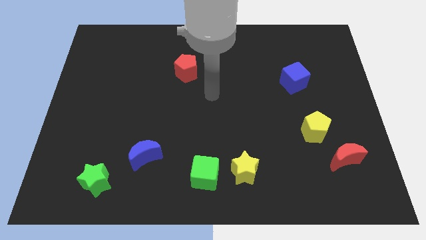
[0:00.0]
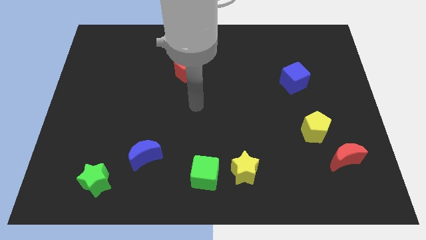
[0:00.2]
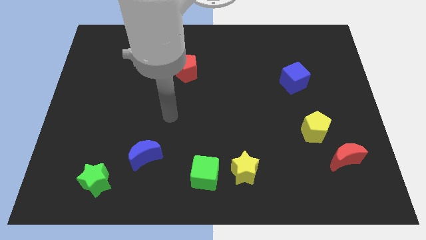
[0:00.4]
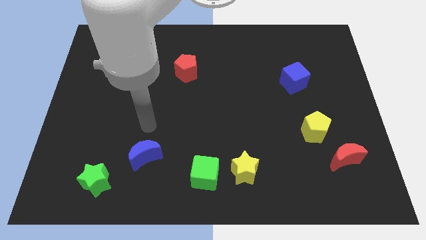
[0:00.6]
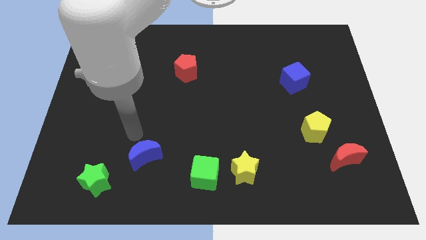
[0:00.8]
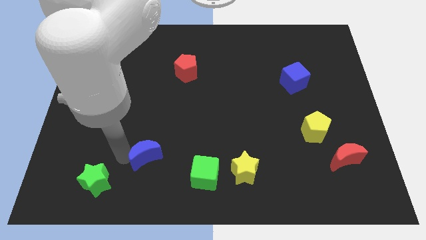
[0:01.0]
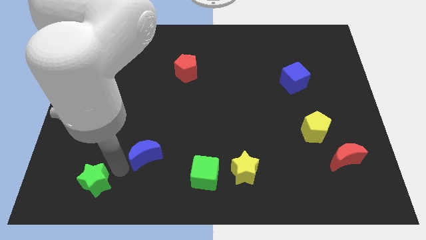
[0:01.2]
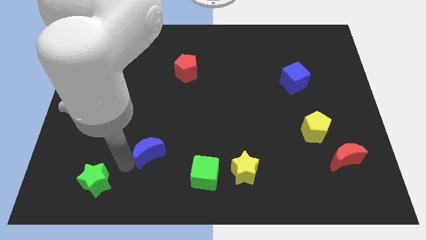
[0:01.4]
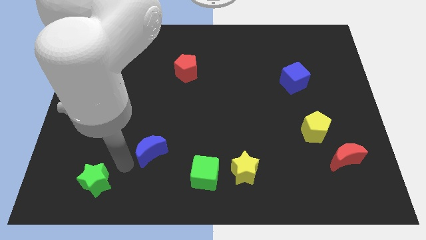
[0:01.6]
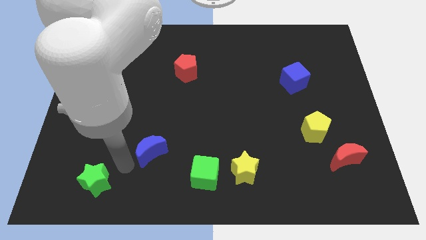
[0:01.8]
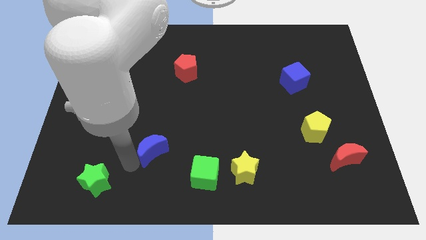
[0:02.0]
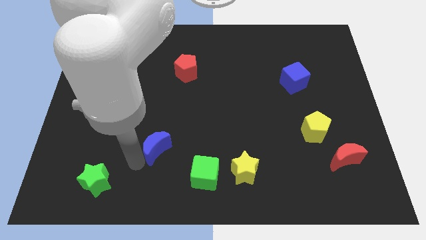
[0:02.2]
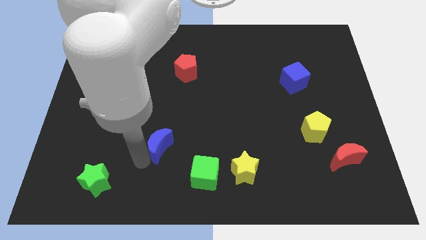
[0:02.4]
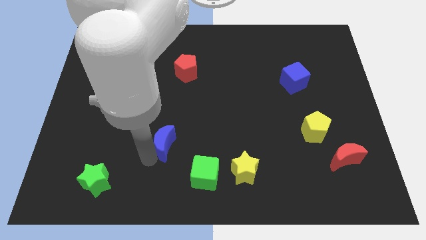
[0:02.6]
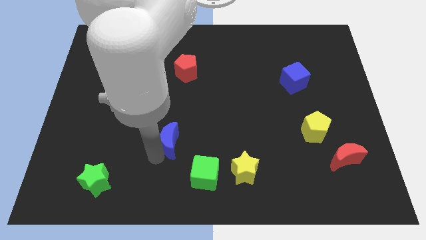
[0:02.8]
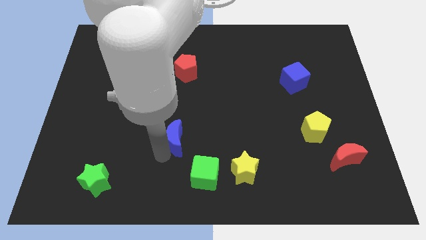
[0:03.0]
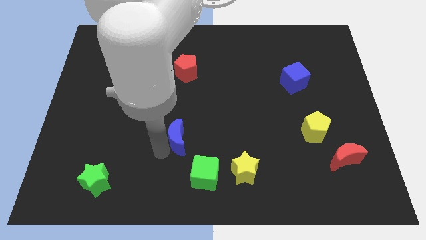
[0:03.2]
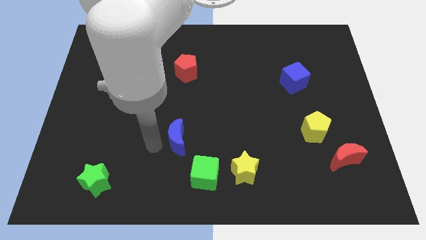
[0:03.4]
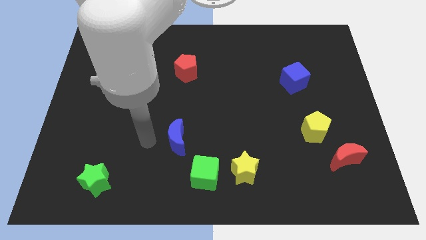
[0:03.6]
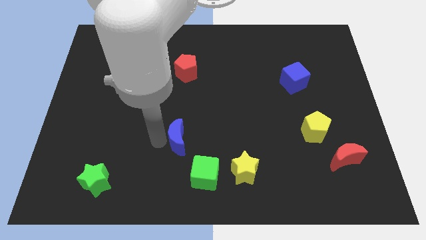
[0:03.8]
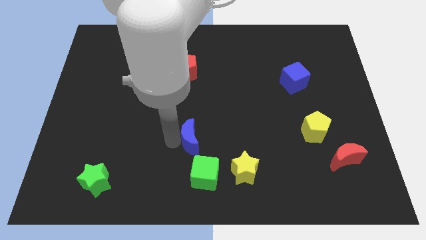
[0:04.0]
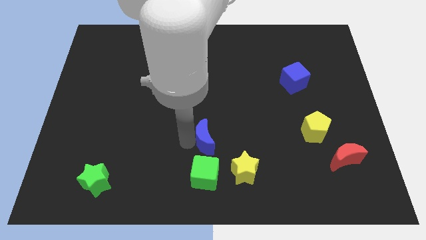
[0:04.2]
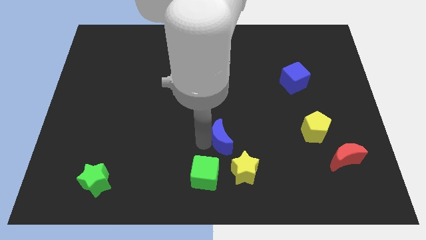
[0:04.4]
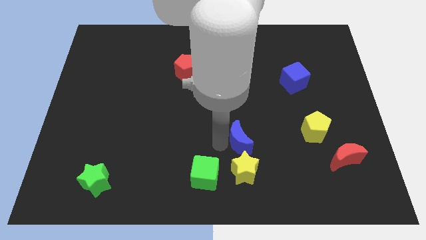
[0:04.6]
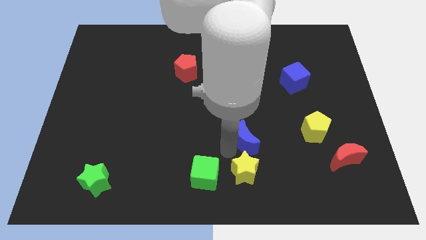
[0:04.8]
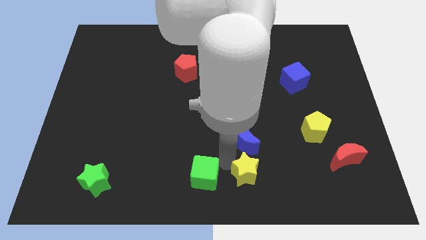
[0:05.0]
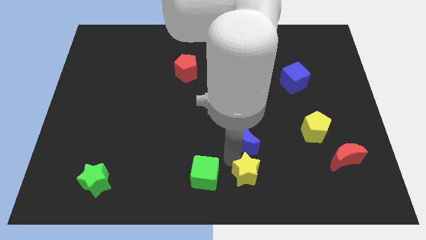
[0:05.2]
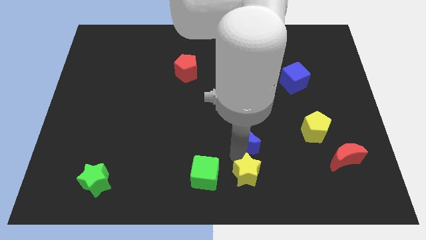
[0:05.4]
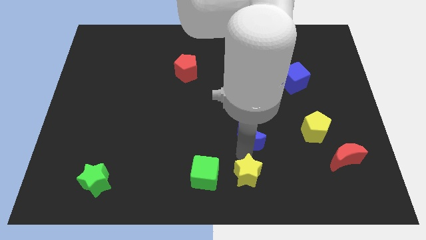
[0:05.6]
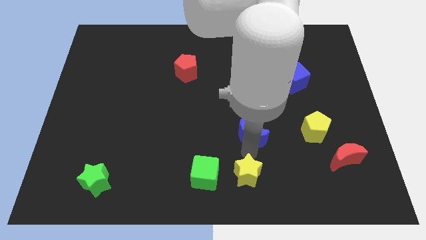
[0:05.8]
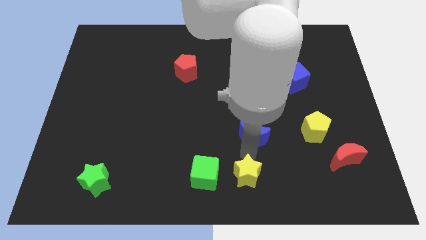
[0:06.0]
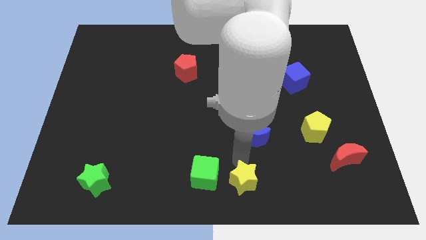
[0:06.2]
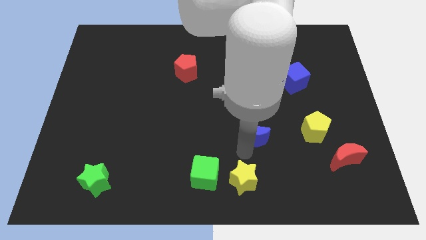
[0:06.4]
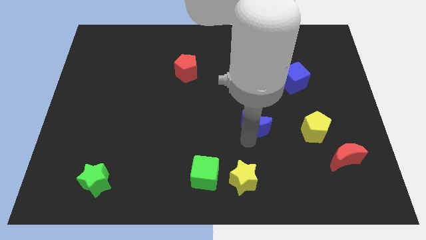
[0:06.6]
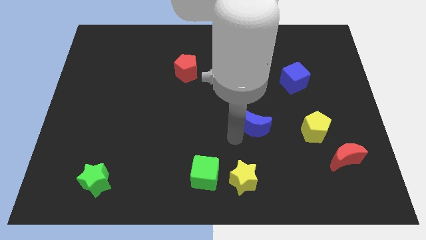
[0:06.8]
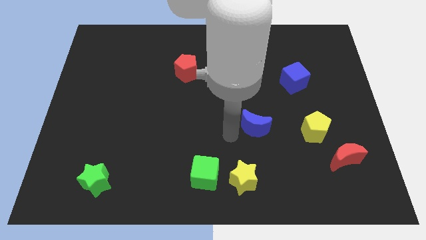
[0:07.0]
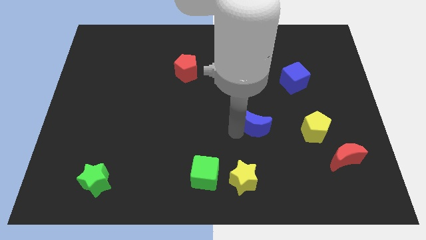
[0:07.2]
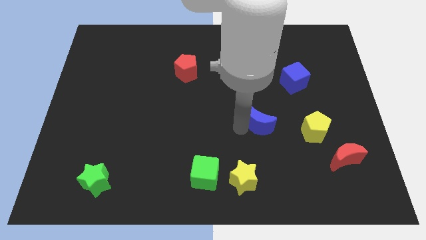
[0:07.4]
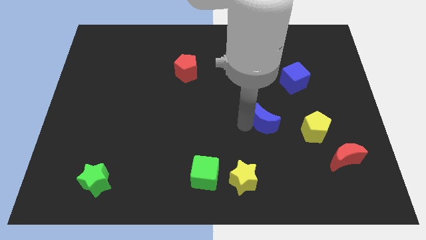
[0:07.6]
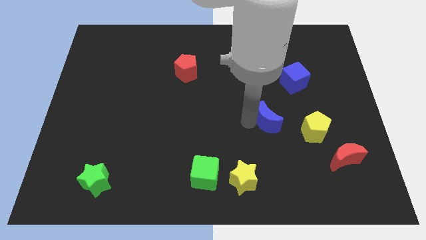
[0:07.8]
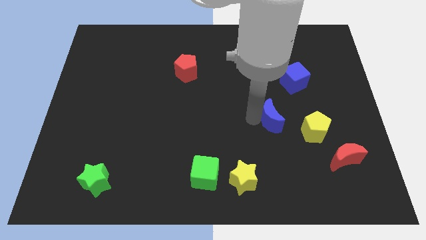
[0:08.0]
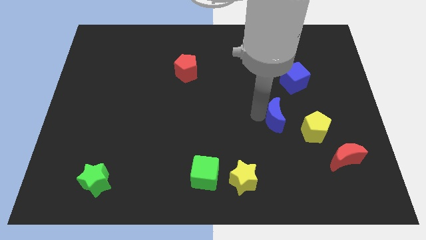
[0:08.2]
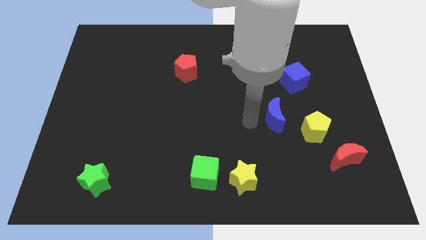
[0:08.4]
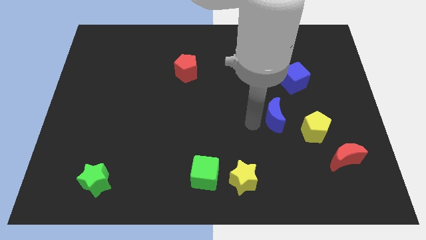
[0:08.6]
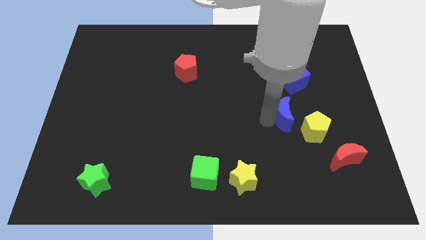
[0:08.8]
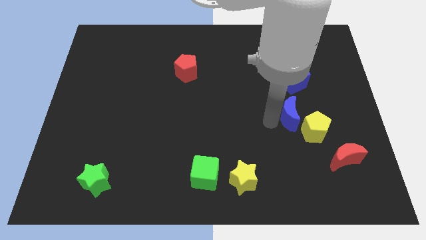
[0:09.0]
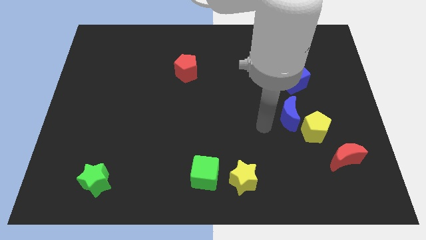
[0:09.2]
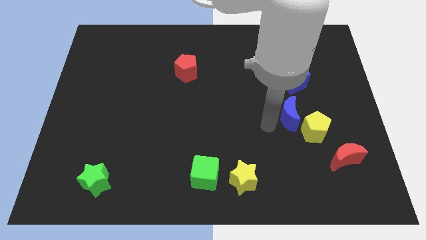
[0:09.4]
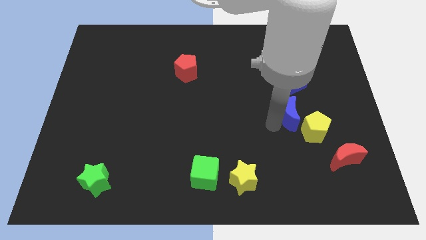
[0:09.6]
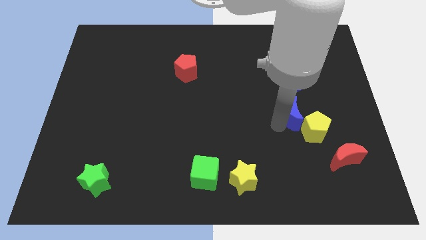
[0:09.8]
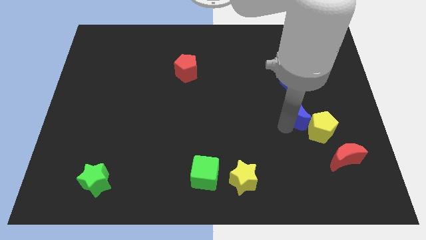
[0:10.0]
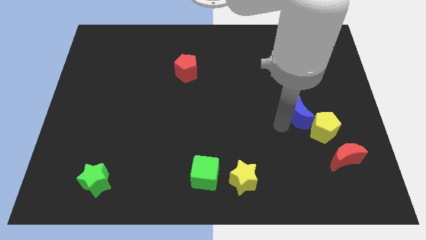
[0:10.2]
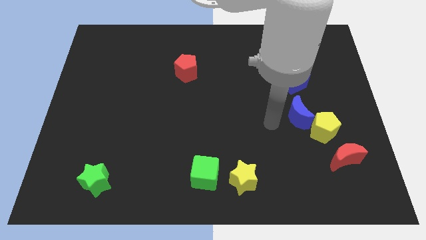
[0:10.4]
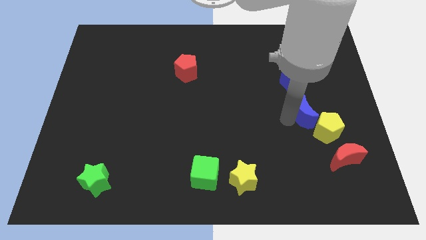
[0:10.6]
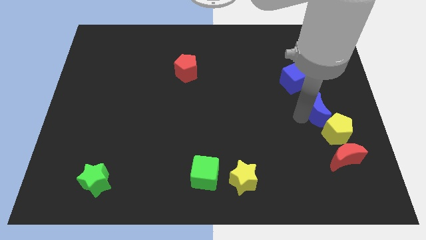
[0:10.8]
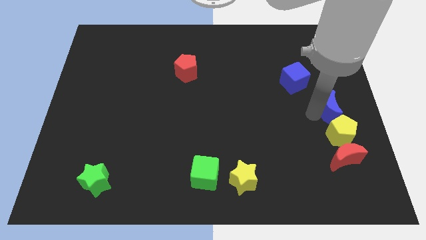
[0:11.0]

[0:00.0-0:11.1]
slide the blue moon to the right side

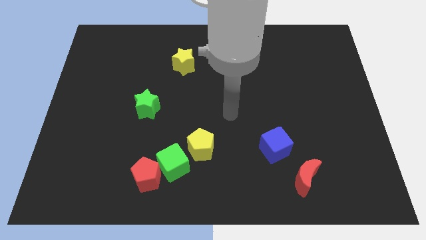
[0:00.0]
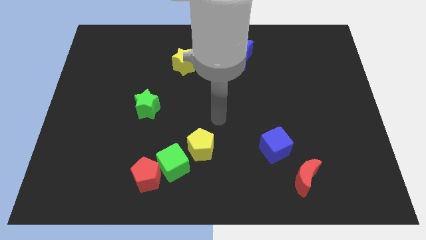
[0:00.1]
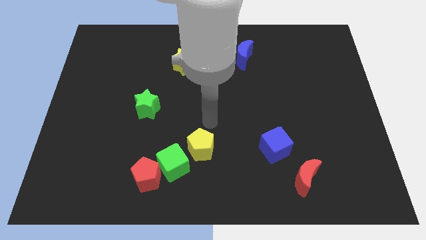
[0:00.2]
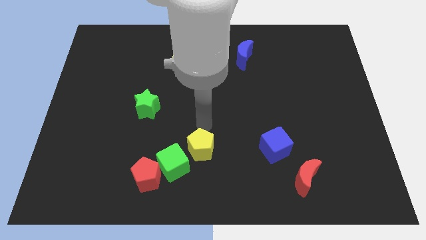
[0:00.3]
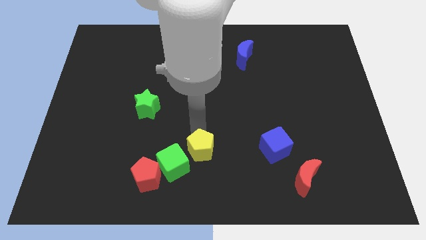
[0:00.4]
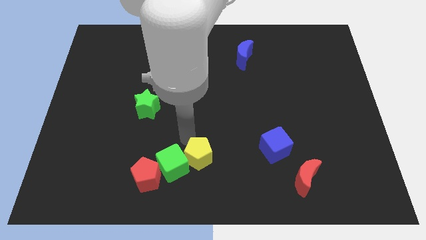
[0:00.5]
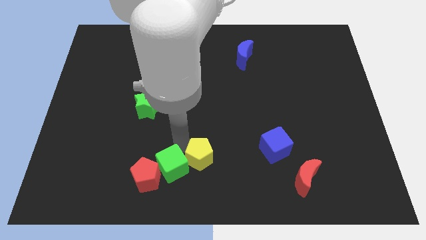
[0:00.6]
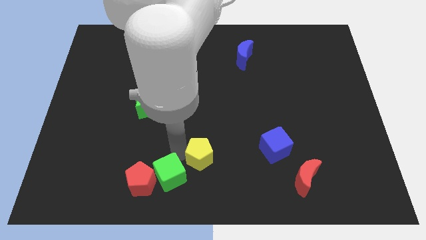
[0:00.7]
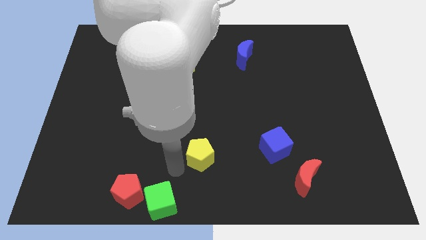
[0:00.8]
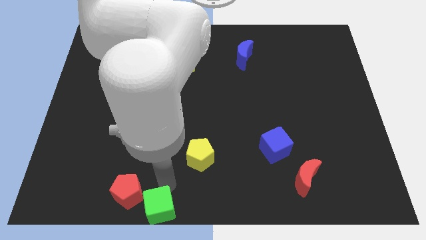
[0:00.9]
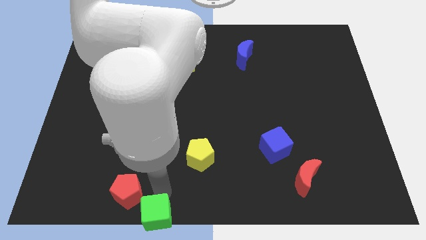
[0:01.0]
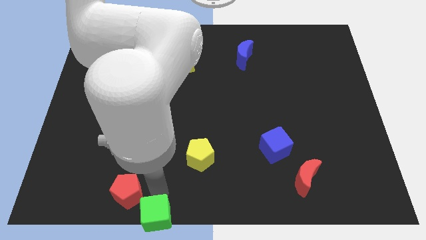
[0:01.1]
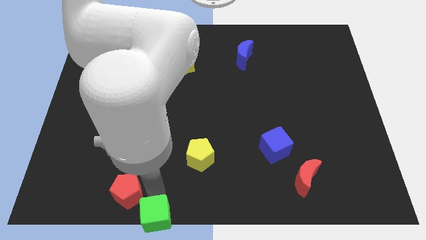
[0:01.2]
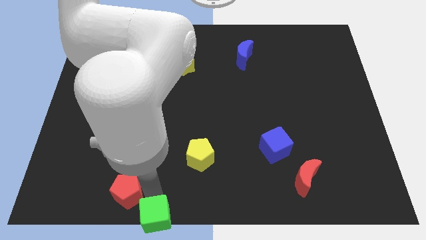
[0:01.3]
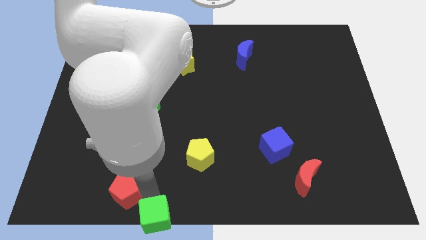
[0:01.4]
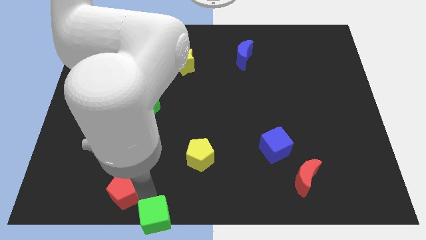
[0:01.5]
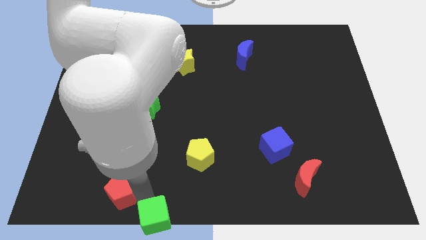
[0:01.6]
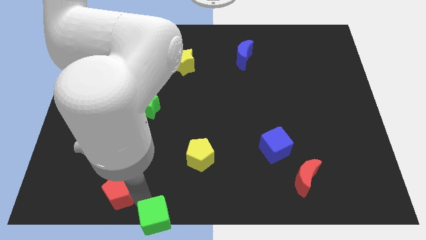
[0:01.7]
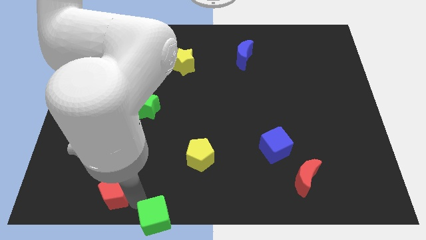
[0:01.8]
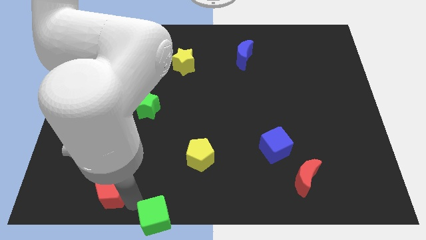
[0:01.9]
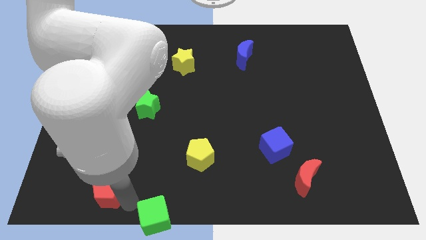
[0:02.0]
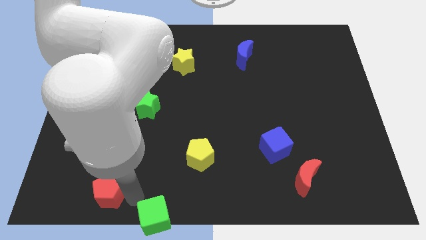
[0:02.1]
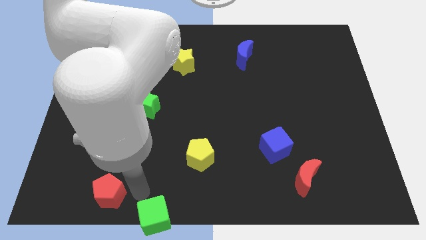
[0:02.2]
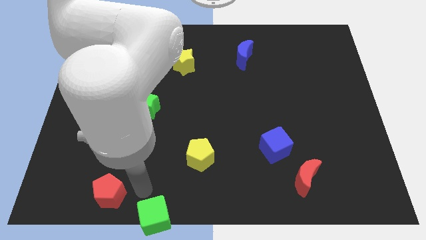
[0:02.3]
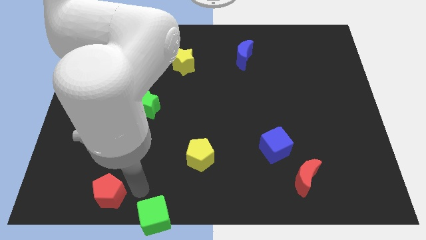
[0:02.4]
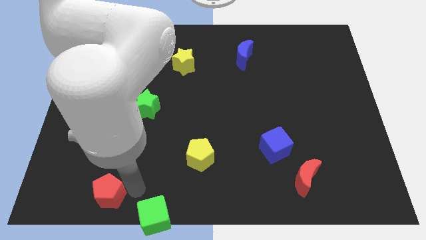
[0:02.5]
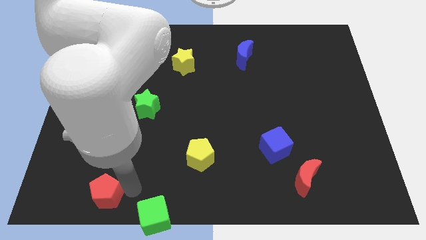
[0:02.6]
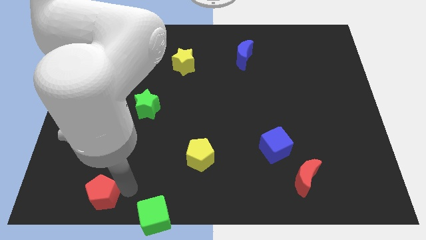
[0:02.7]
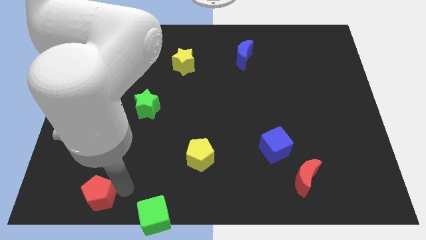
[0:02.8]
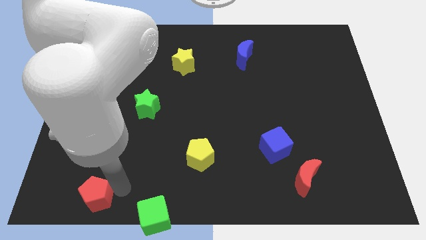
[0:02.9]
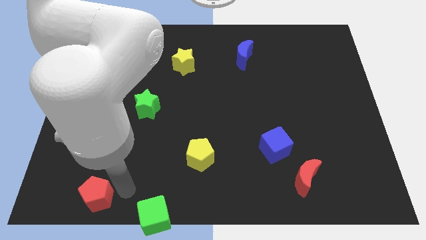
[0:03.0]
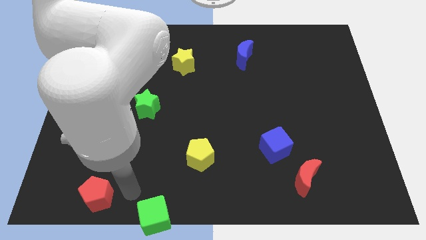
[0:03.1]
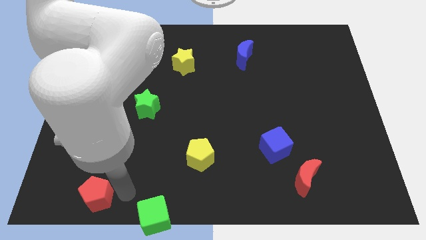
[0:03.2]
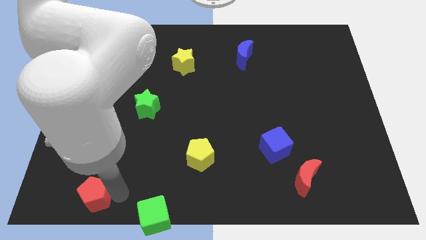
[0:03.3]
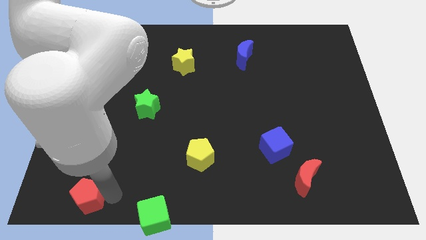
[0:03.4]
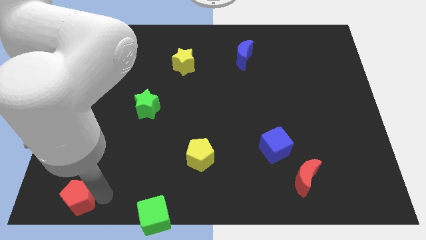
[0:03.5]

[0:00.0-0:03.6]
put the red pentagon to the bottom left corner
